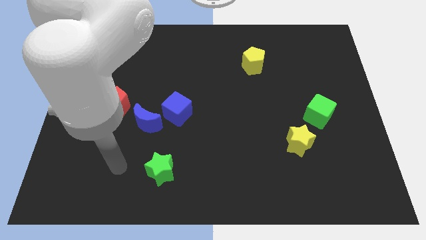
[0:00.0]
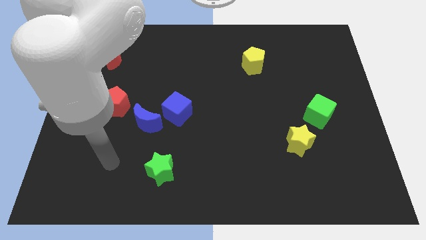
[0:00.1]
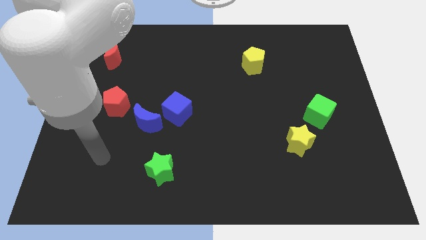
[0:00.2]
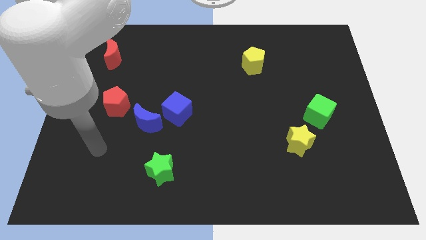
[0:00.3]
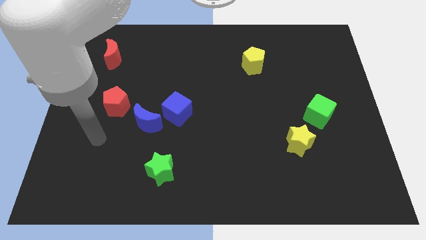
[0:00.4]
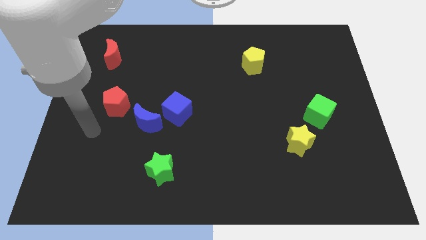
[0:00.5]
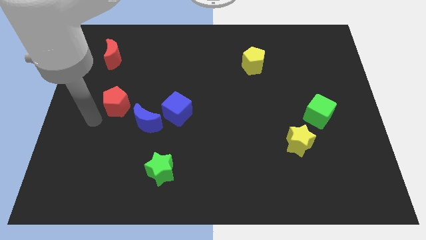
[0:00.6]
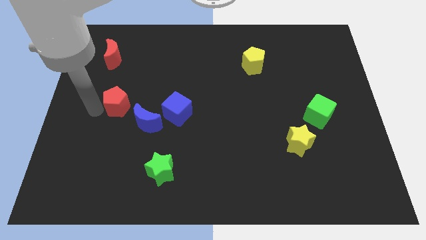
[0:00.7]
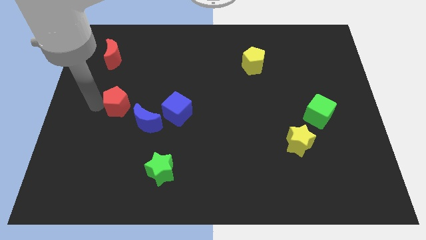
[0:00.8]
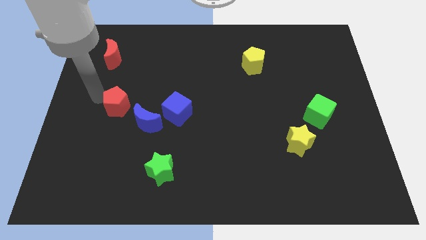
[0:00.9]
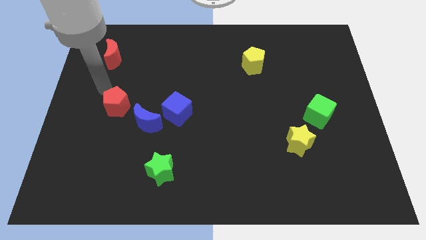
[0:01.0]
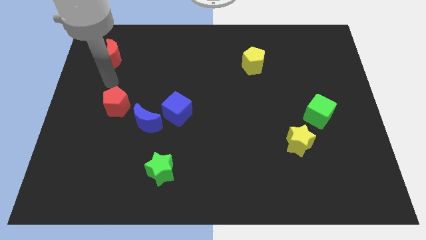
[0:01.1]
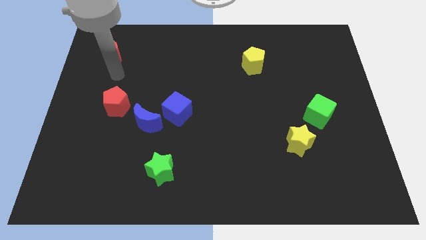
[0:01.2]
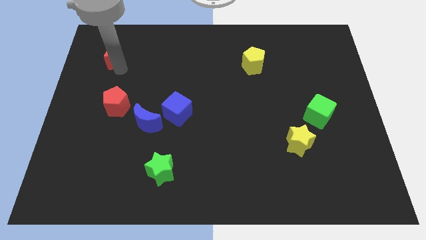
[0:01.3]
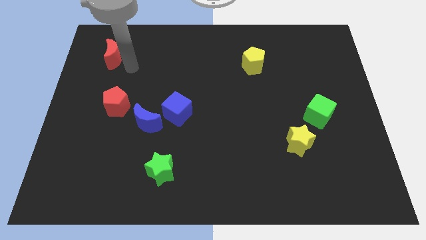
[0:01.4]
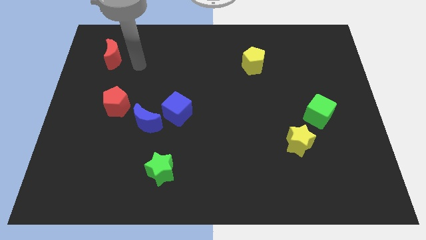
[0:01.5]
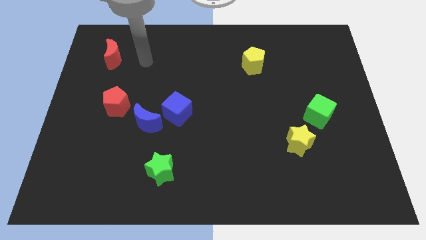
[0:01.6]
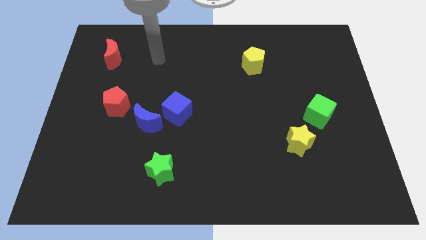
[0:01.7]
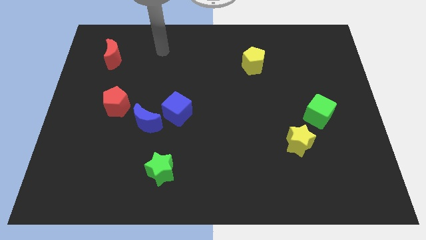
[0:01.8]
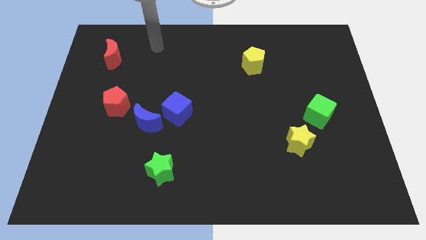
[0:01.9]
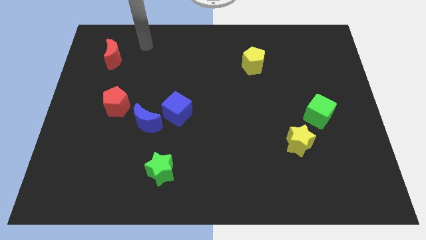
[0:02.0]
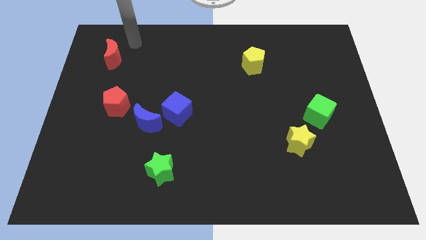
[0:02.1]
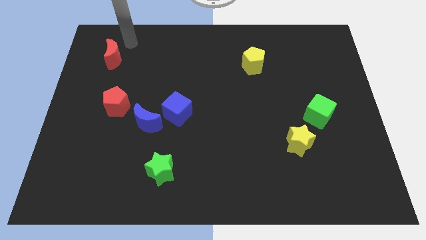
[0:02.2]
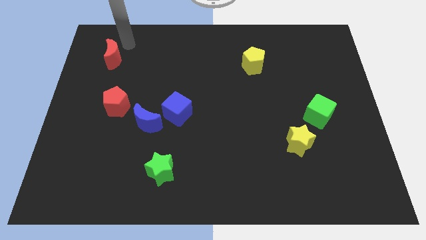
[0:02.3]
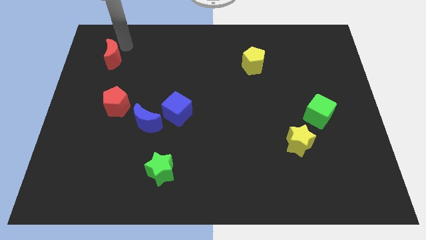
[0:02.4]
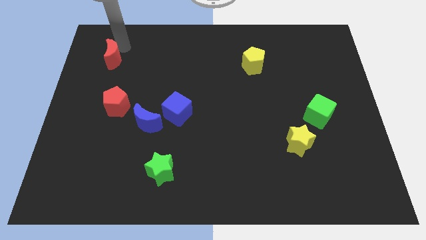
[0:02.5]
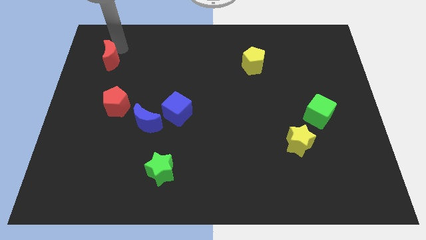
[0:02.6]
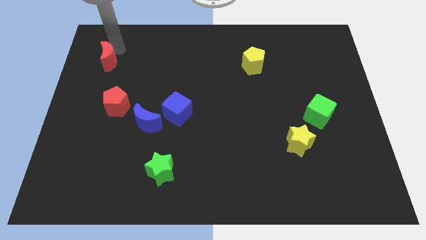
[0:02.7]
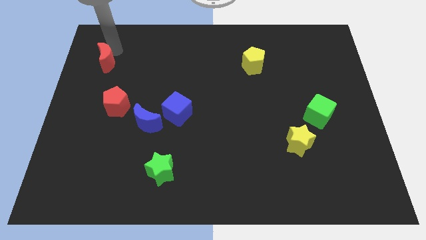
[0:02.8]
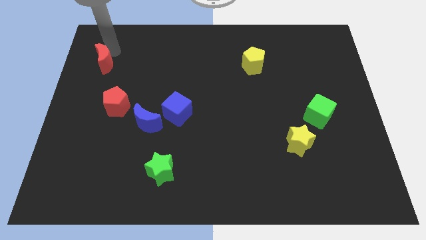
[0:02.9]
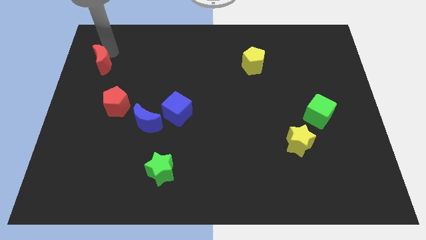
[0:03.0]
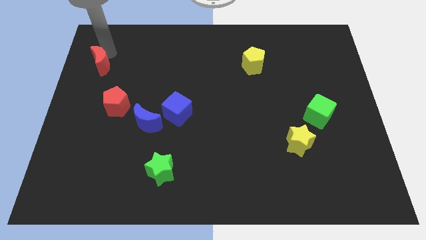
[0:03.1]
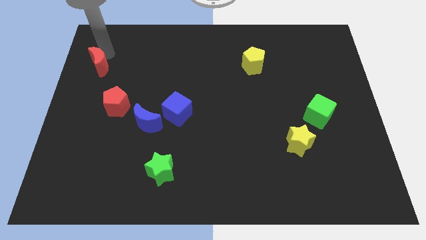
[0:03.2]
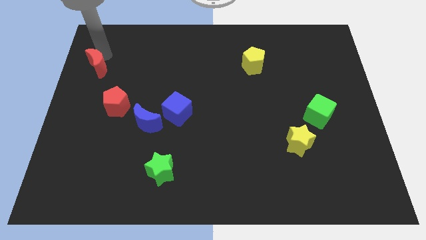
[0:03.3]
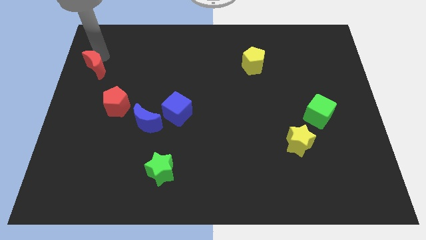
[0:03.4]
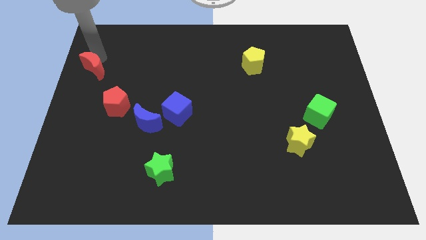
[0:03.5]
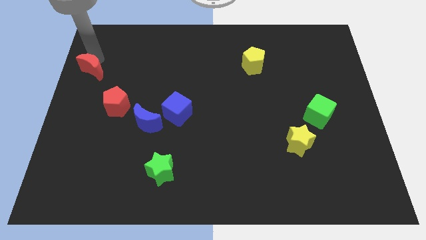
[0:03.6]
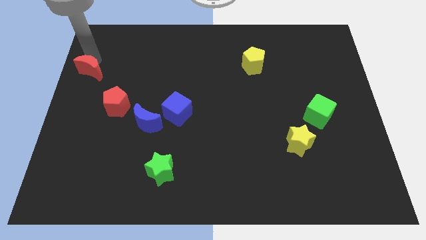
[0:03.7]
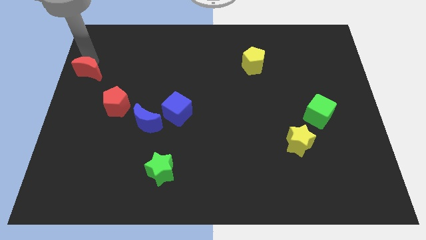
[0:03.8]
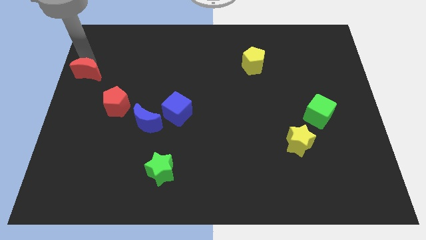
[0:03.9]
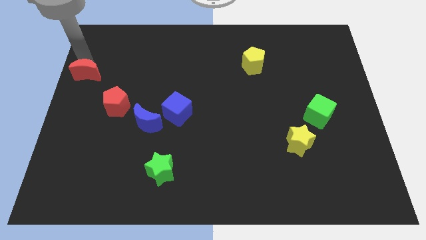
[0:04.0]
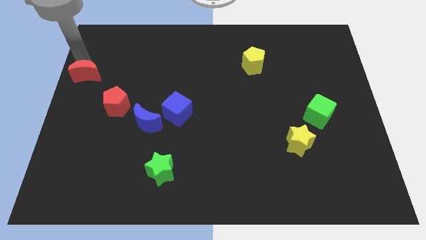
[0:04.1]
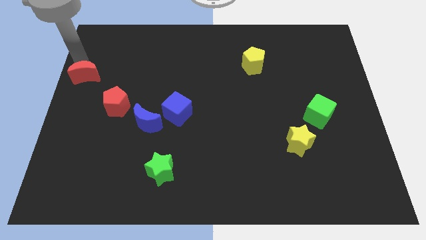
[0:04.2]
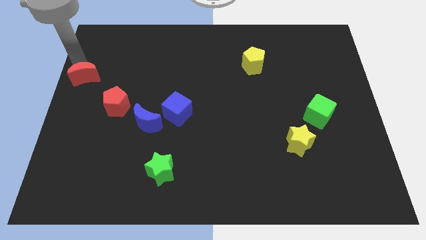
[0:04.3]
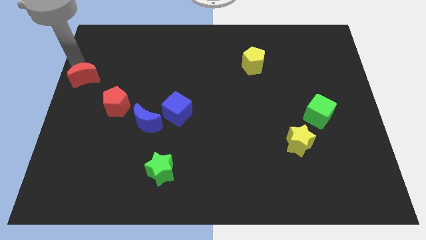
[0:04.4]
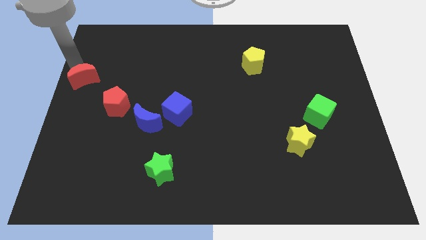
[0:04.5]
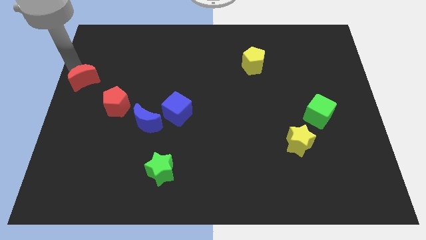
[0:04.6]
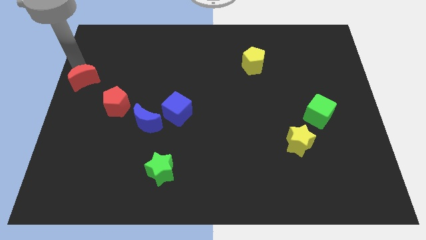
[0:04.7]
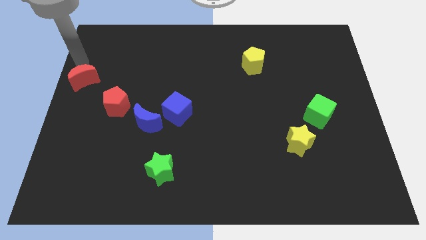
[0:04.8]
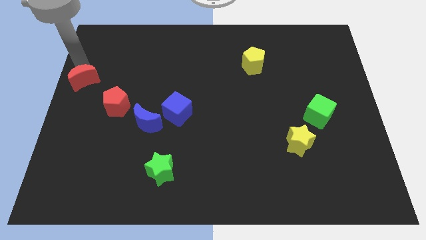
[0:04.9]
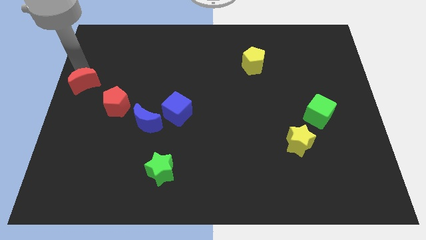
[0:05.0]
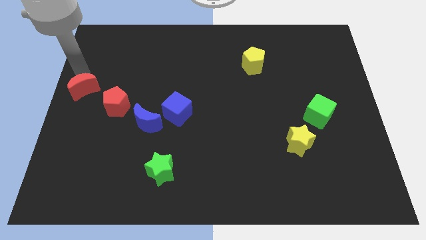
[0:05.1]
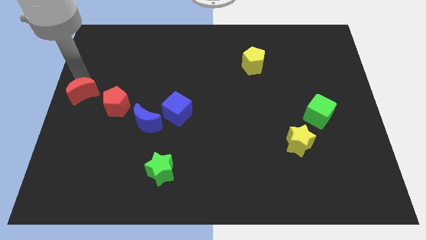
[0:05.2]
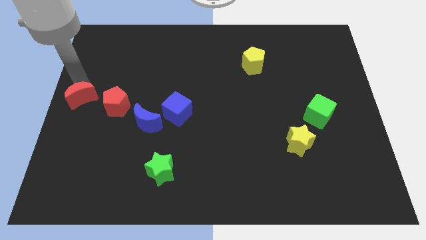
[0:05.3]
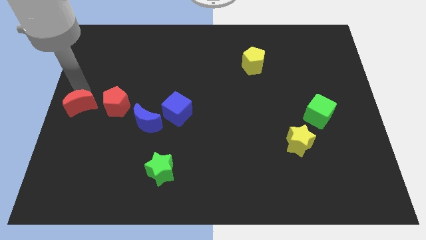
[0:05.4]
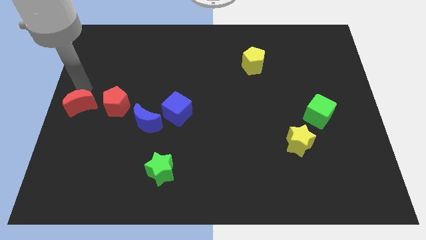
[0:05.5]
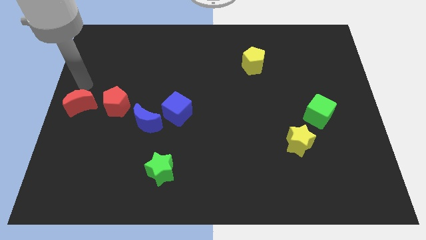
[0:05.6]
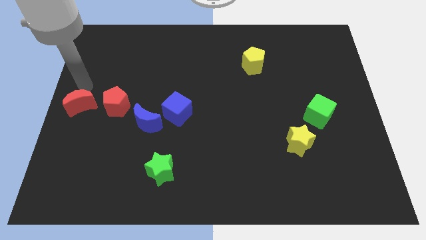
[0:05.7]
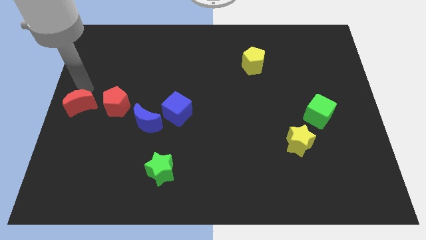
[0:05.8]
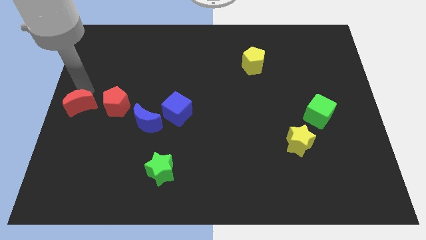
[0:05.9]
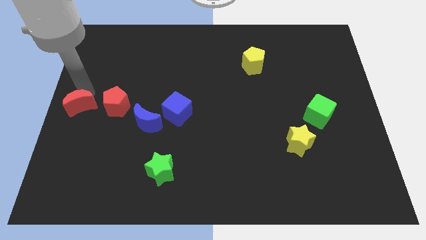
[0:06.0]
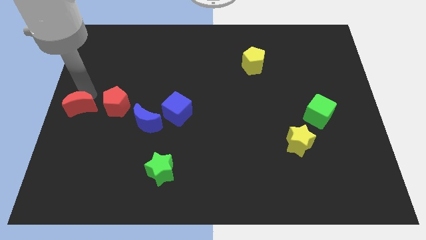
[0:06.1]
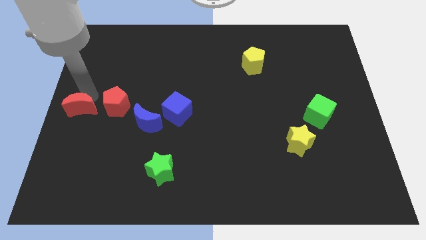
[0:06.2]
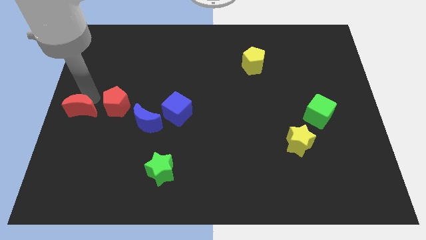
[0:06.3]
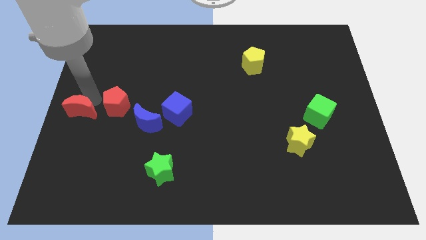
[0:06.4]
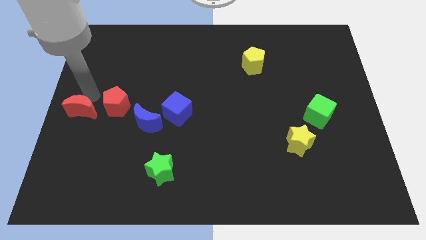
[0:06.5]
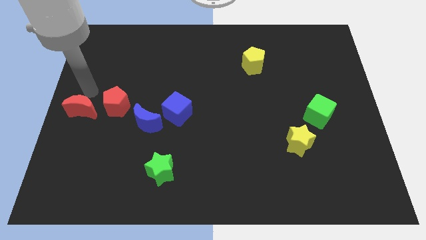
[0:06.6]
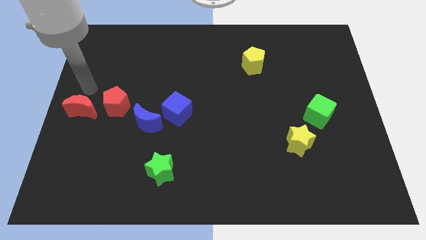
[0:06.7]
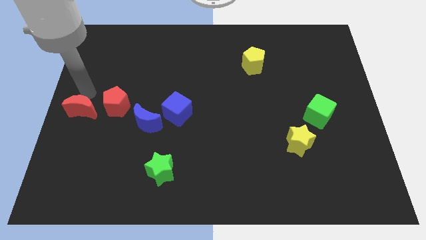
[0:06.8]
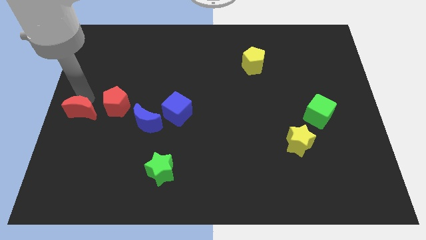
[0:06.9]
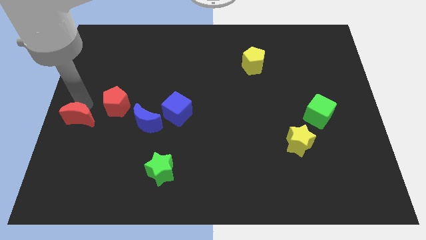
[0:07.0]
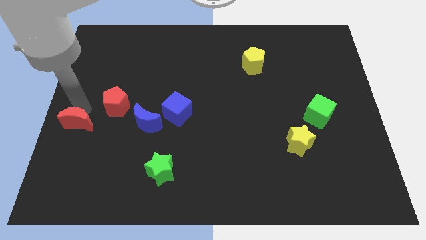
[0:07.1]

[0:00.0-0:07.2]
move the red moon downwards

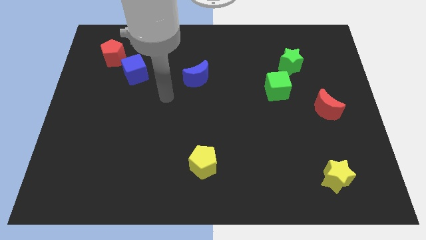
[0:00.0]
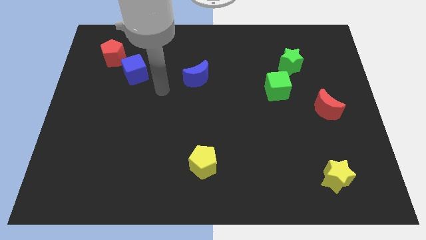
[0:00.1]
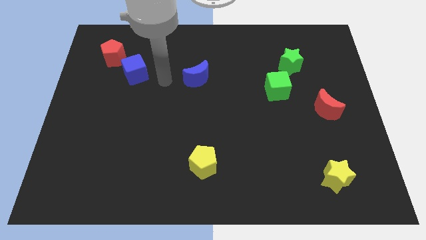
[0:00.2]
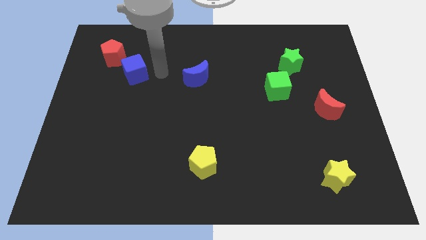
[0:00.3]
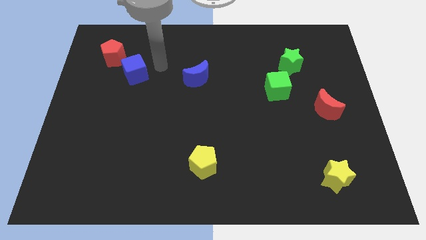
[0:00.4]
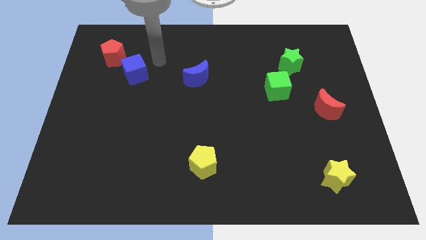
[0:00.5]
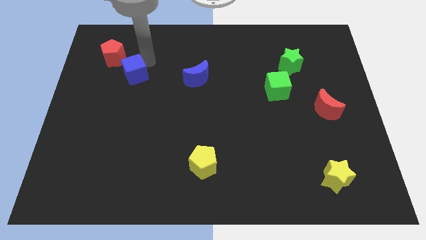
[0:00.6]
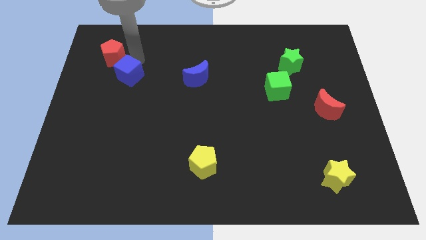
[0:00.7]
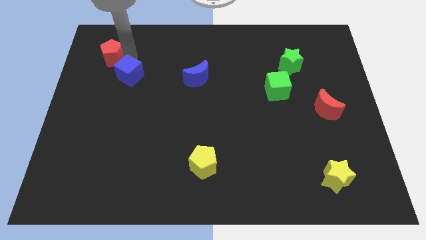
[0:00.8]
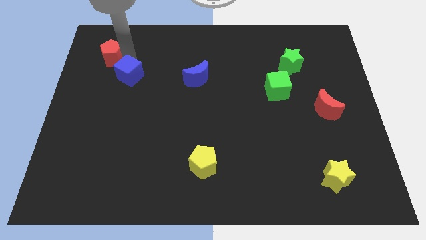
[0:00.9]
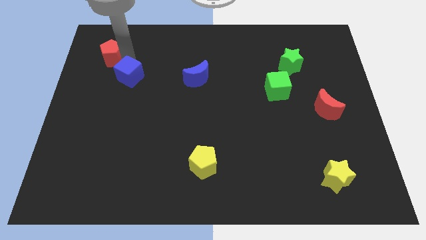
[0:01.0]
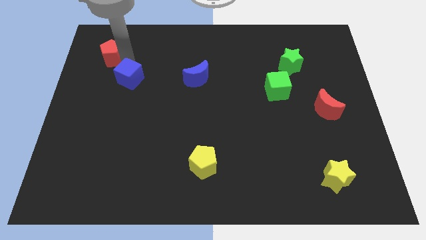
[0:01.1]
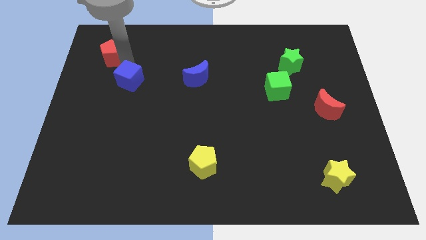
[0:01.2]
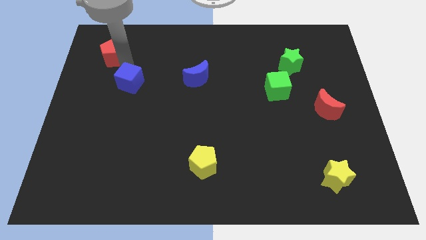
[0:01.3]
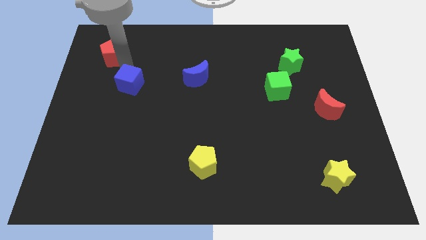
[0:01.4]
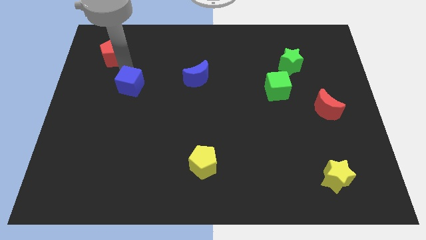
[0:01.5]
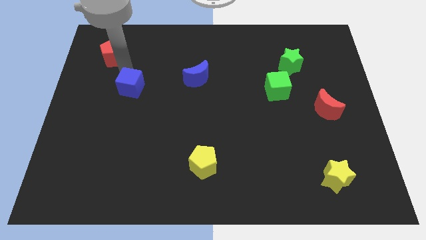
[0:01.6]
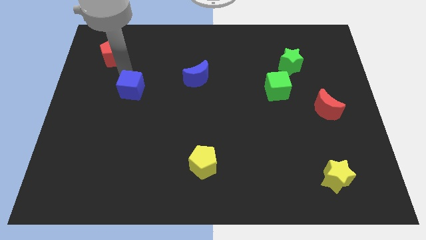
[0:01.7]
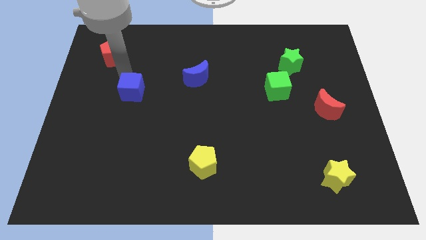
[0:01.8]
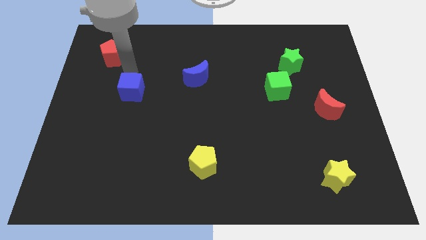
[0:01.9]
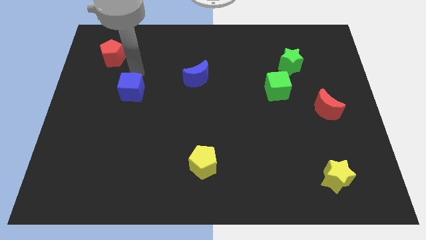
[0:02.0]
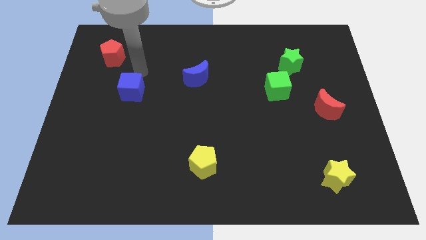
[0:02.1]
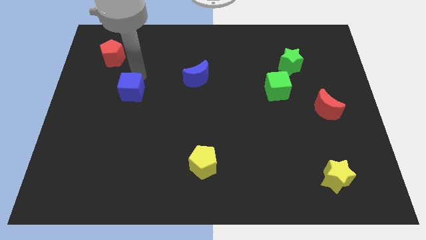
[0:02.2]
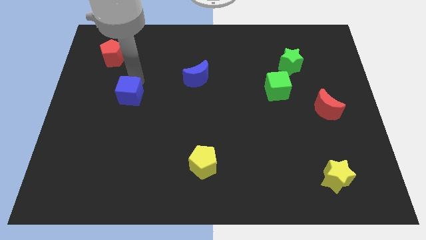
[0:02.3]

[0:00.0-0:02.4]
push the blue cube downwards slightly
